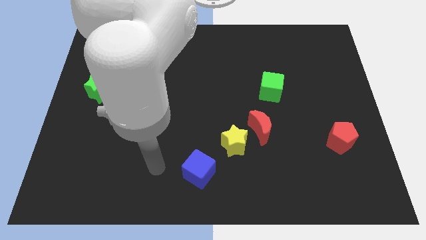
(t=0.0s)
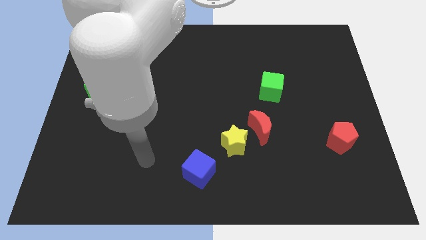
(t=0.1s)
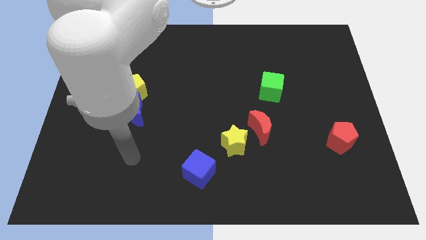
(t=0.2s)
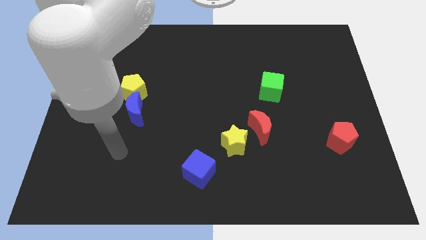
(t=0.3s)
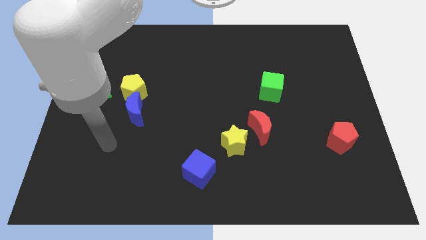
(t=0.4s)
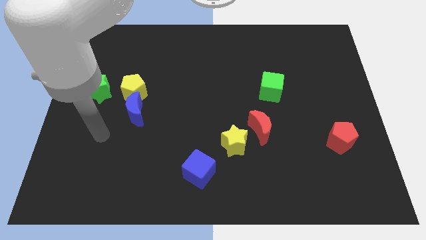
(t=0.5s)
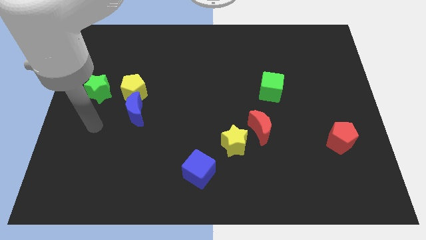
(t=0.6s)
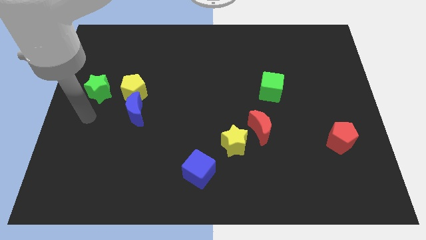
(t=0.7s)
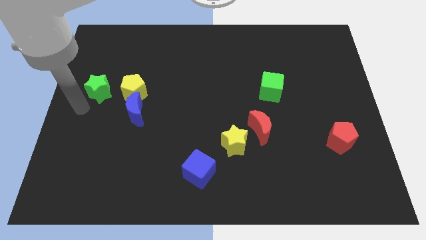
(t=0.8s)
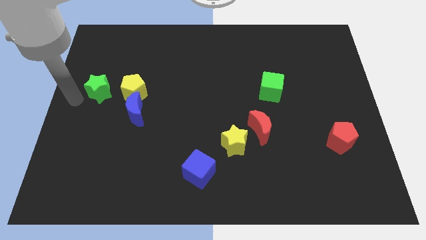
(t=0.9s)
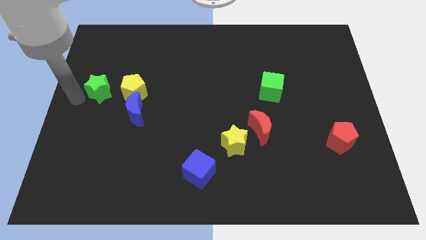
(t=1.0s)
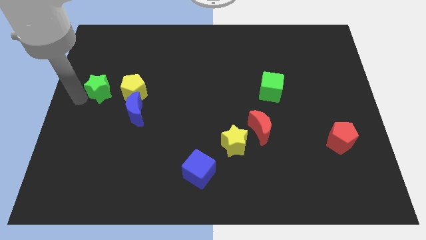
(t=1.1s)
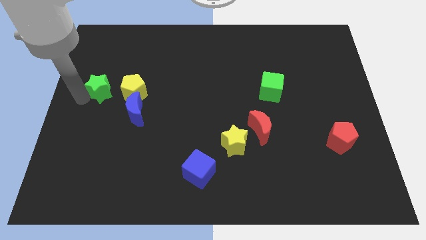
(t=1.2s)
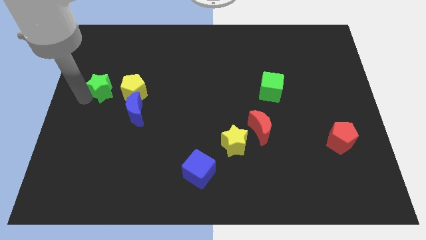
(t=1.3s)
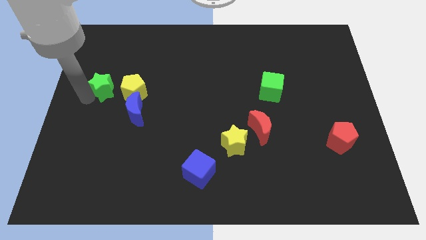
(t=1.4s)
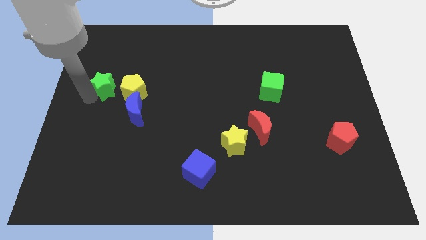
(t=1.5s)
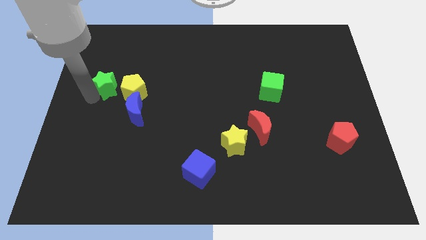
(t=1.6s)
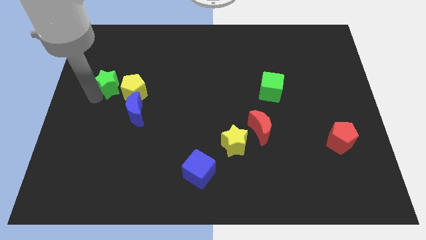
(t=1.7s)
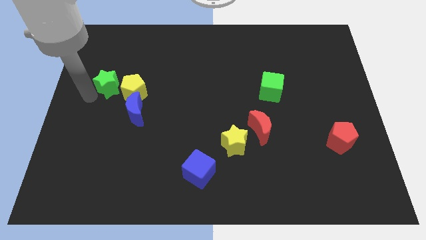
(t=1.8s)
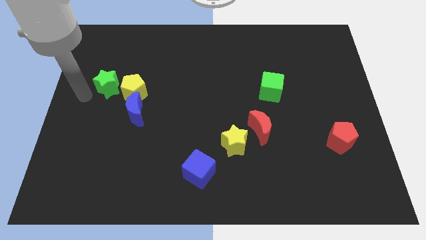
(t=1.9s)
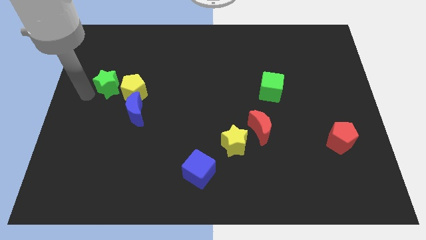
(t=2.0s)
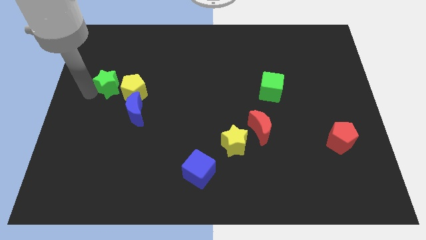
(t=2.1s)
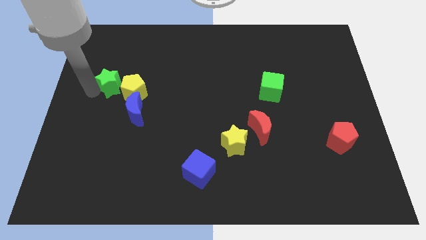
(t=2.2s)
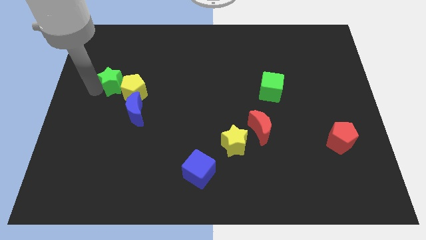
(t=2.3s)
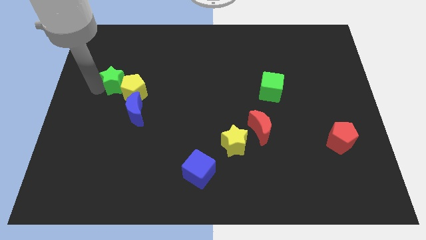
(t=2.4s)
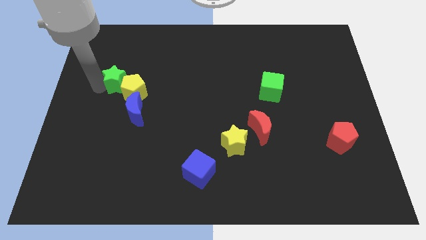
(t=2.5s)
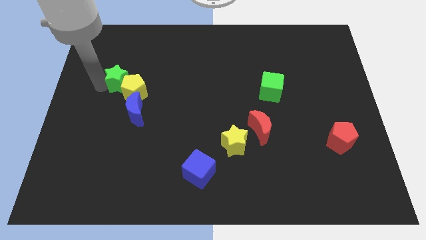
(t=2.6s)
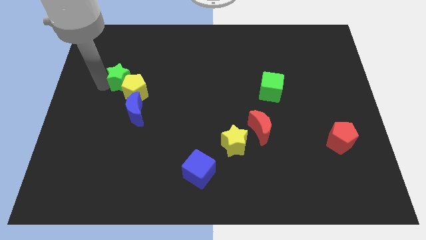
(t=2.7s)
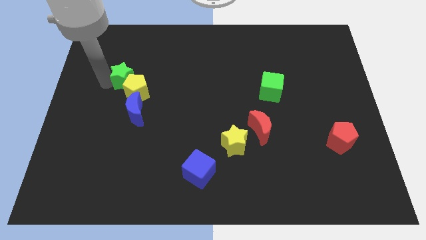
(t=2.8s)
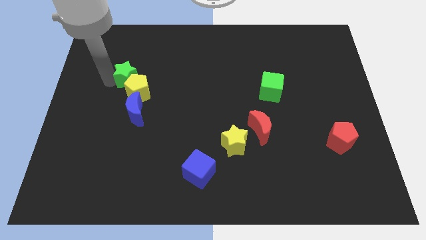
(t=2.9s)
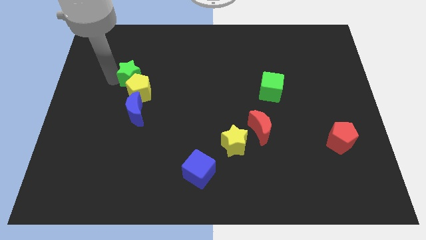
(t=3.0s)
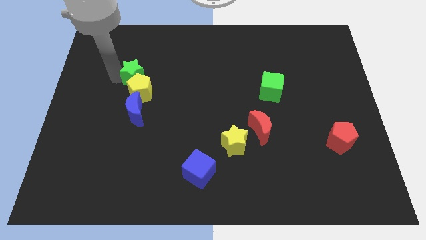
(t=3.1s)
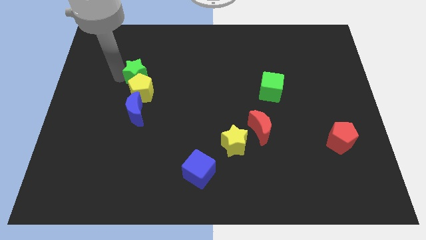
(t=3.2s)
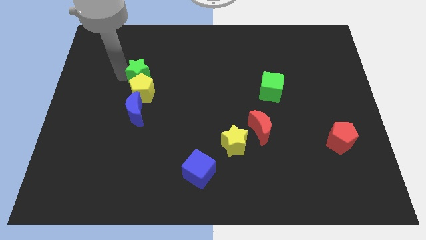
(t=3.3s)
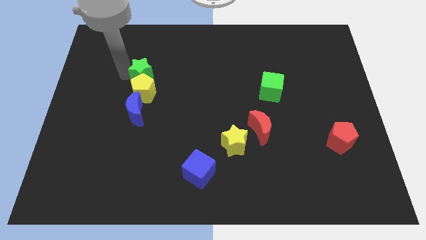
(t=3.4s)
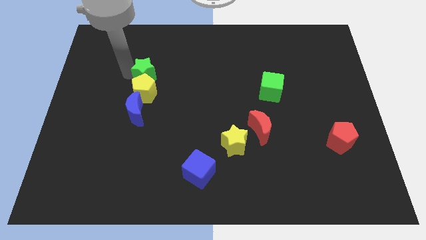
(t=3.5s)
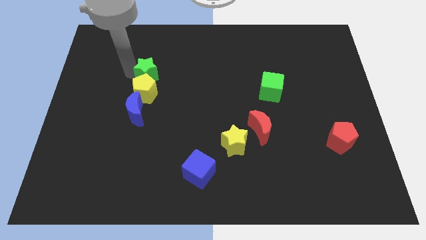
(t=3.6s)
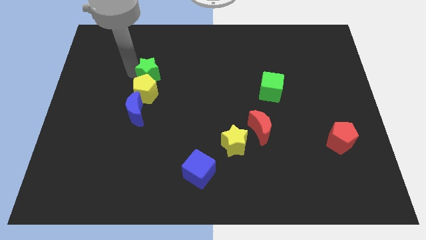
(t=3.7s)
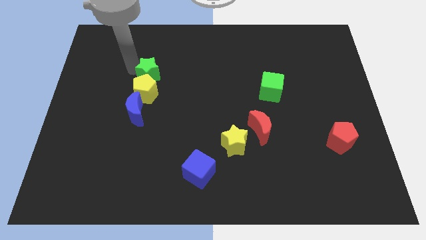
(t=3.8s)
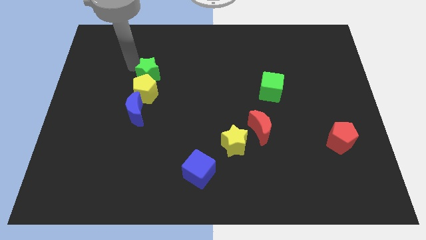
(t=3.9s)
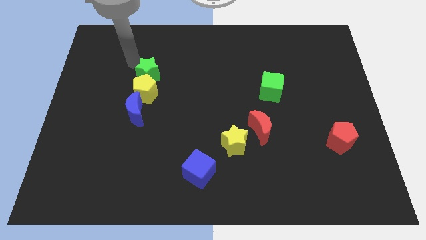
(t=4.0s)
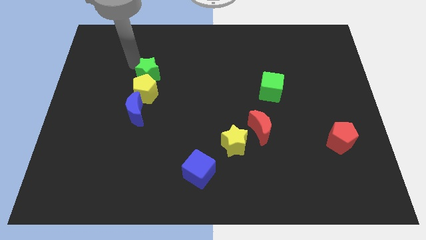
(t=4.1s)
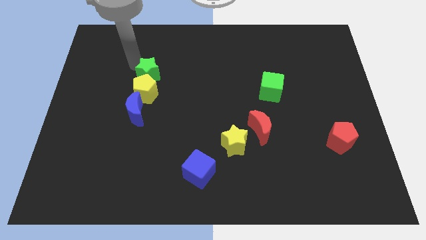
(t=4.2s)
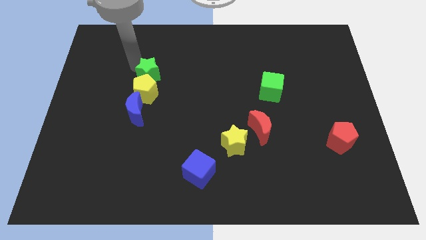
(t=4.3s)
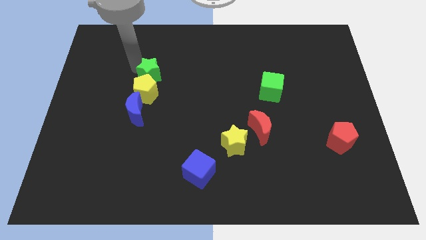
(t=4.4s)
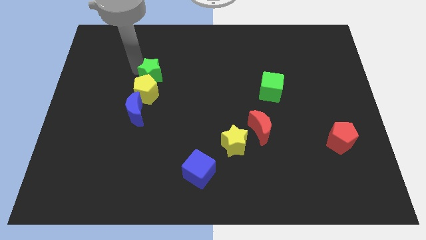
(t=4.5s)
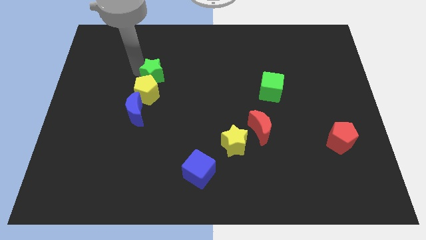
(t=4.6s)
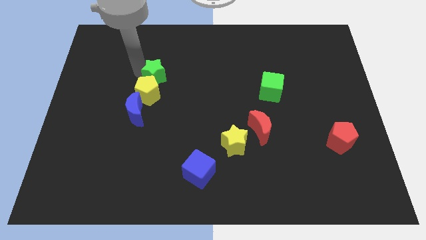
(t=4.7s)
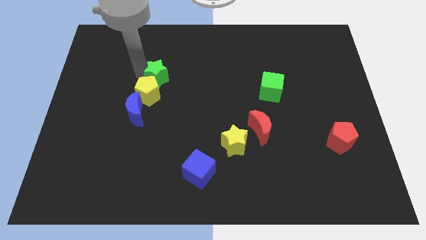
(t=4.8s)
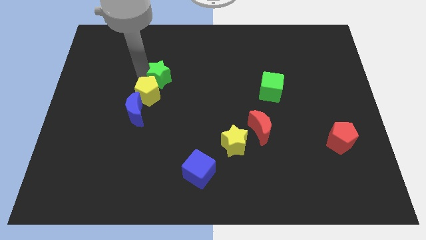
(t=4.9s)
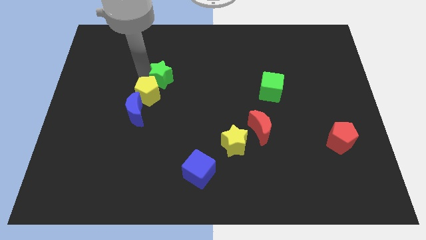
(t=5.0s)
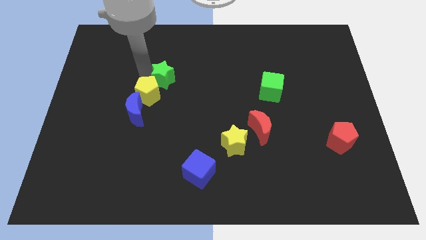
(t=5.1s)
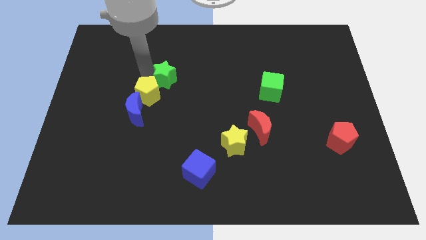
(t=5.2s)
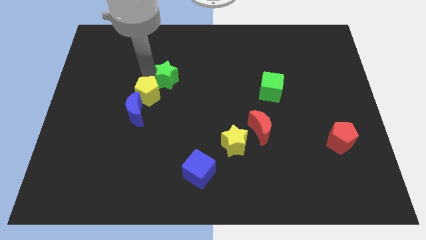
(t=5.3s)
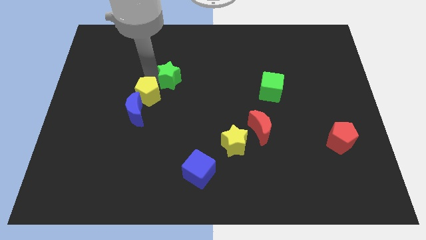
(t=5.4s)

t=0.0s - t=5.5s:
slide the green star to the center of the board

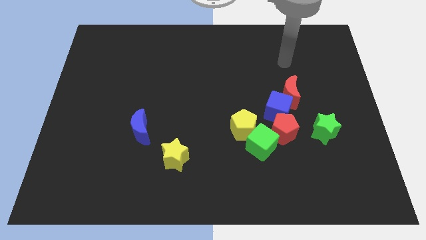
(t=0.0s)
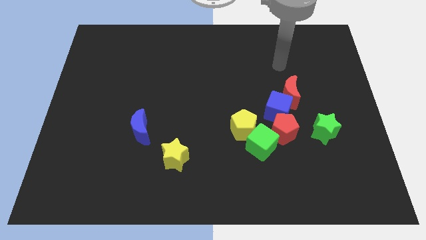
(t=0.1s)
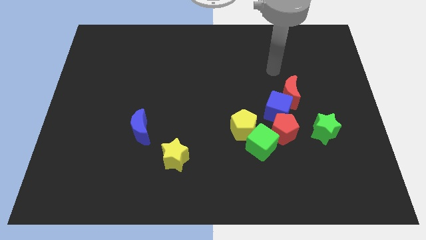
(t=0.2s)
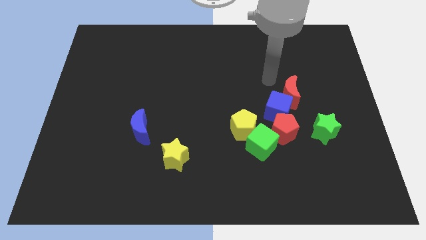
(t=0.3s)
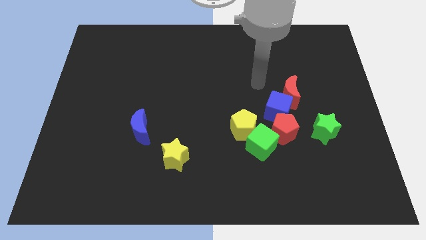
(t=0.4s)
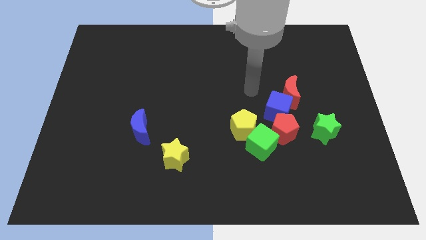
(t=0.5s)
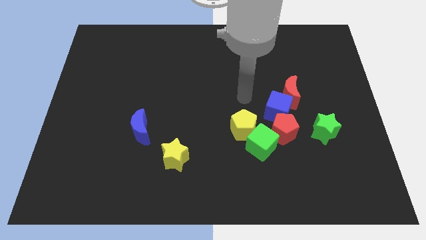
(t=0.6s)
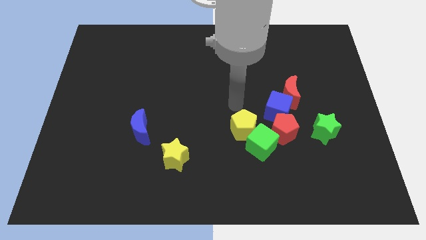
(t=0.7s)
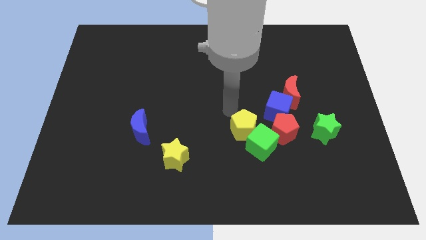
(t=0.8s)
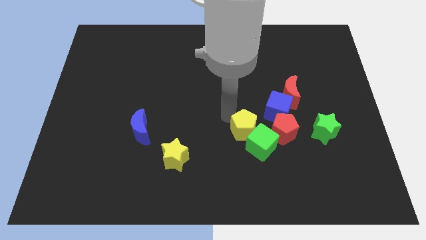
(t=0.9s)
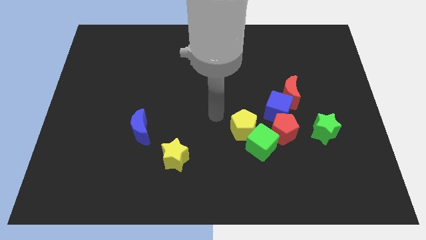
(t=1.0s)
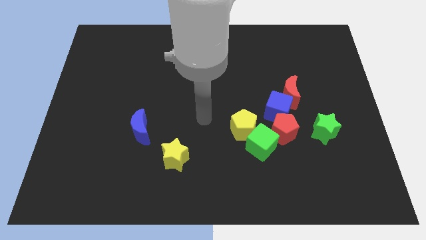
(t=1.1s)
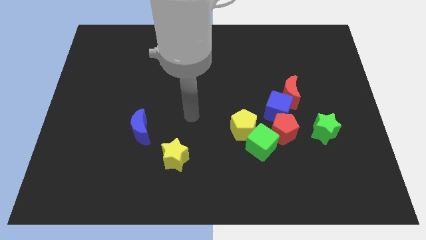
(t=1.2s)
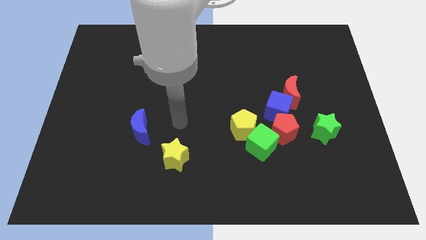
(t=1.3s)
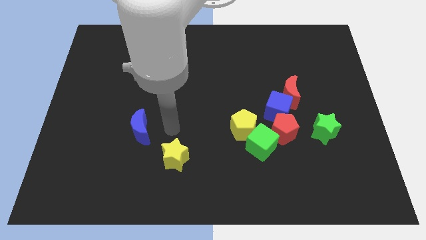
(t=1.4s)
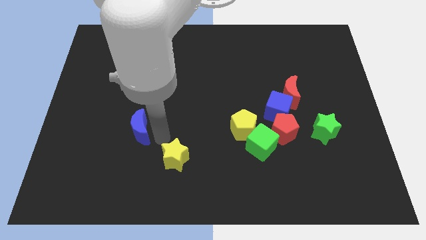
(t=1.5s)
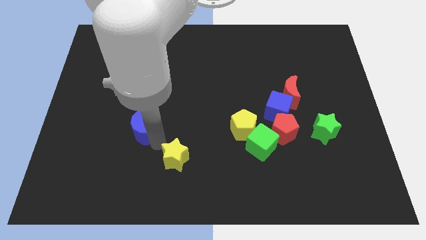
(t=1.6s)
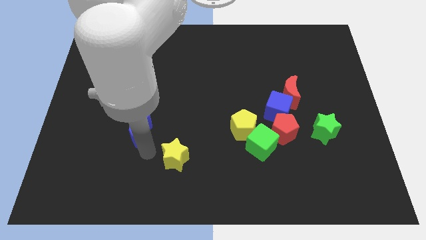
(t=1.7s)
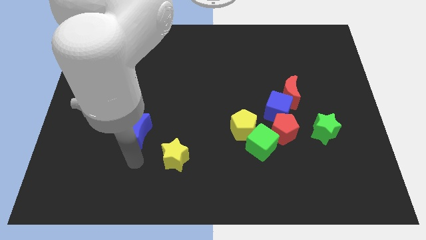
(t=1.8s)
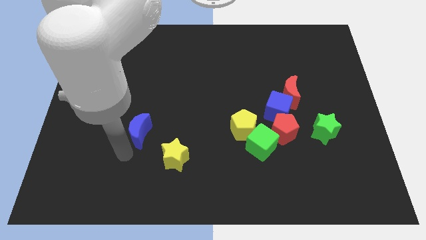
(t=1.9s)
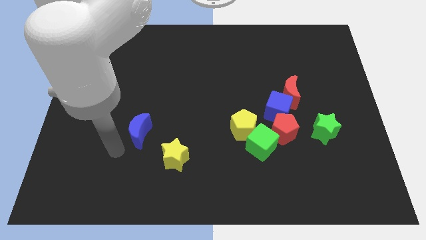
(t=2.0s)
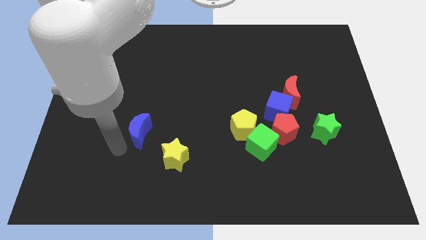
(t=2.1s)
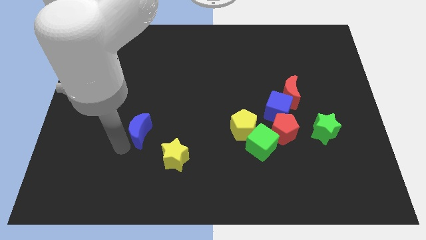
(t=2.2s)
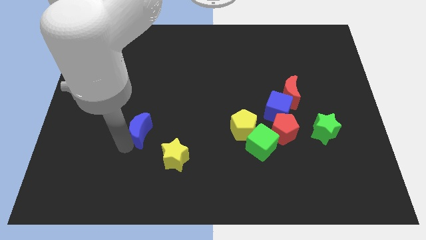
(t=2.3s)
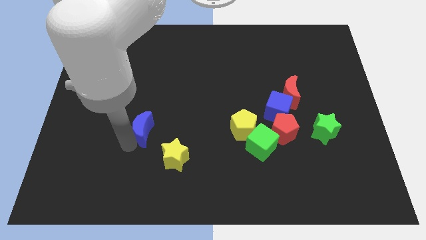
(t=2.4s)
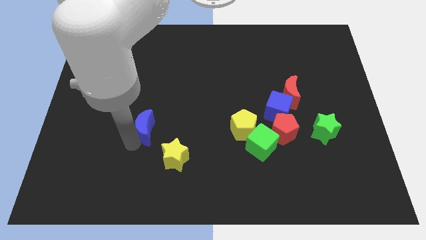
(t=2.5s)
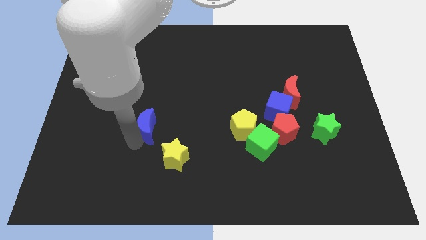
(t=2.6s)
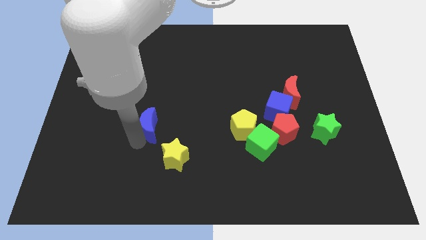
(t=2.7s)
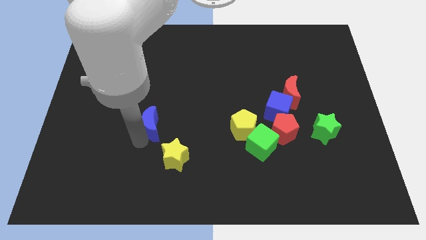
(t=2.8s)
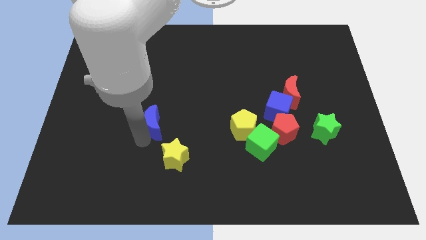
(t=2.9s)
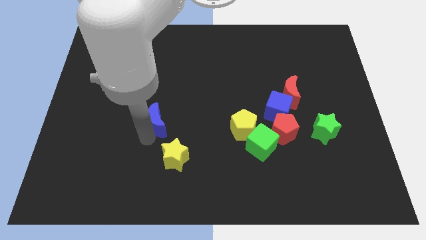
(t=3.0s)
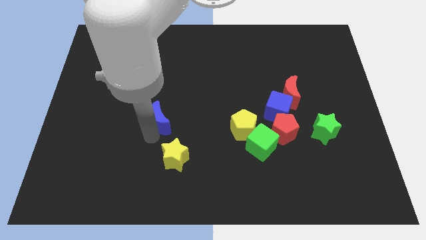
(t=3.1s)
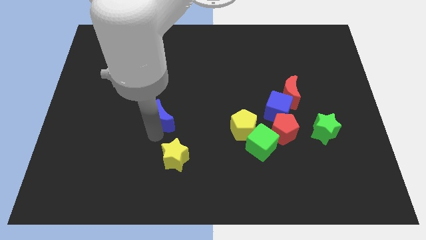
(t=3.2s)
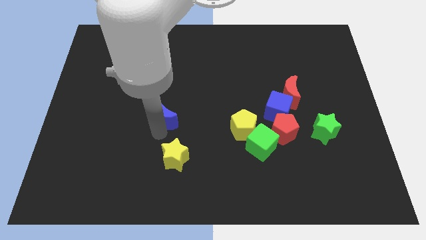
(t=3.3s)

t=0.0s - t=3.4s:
put the blue moon to the middle of the board
